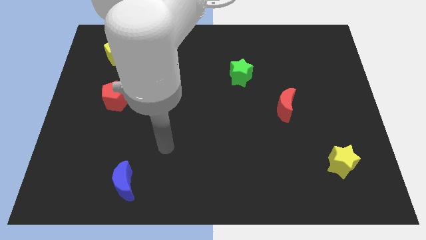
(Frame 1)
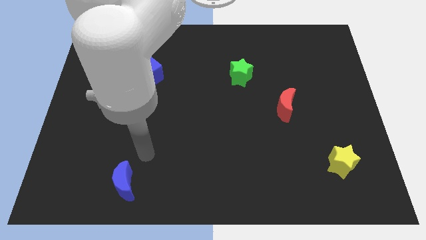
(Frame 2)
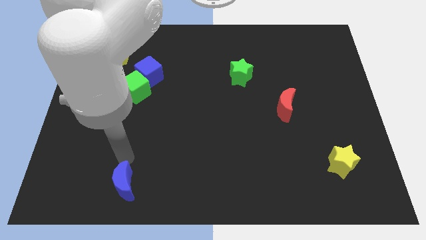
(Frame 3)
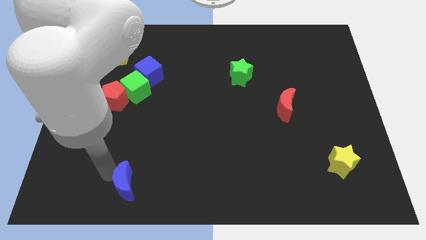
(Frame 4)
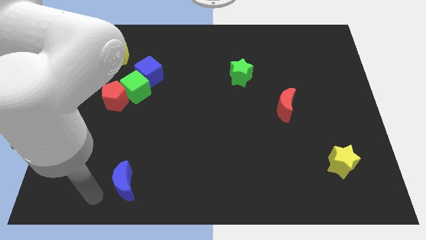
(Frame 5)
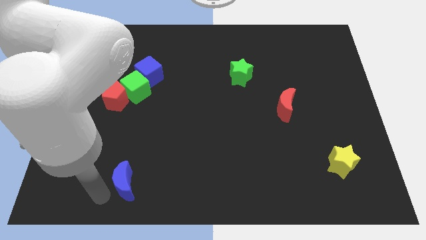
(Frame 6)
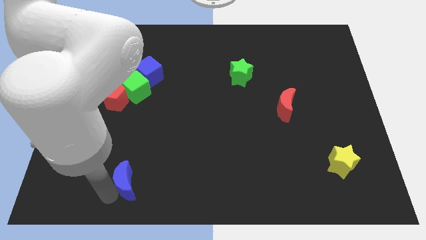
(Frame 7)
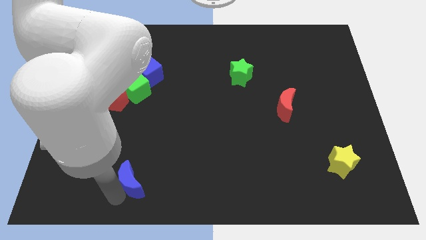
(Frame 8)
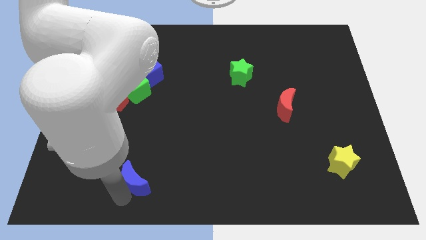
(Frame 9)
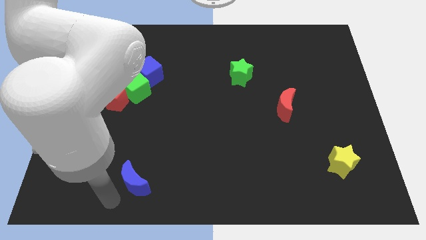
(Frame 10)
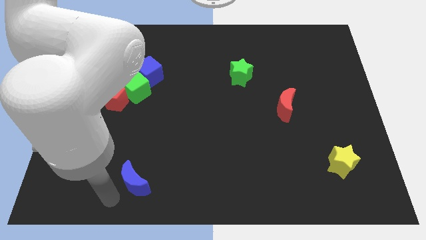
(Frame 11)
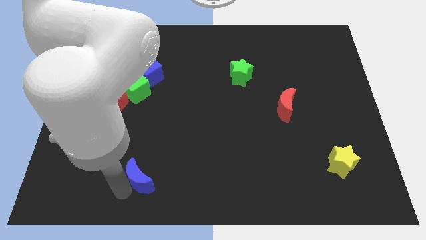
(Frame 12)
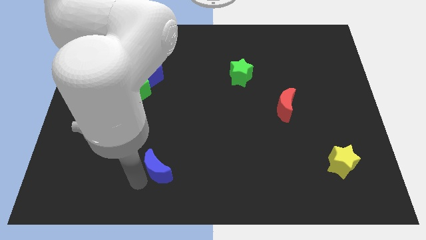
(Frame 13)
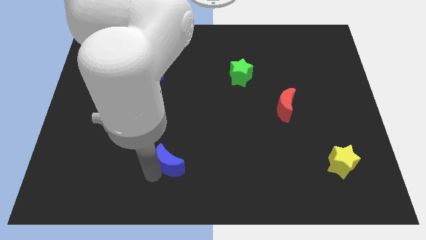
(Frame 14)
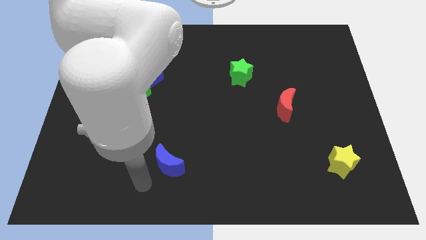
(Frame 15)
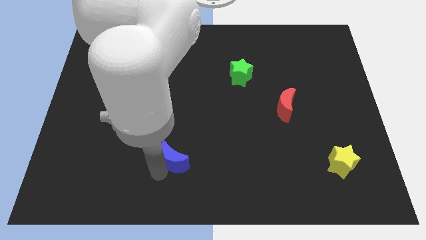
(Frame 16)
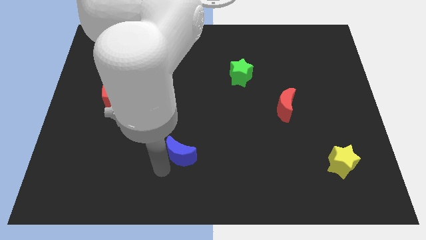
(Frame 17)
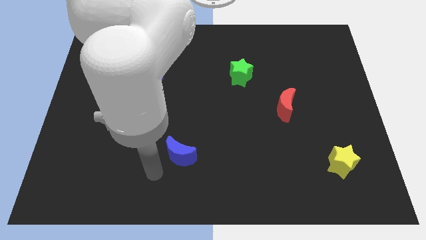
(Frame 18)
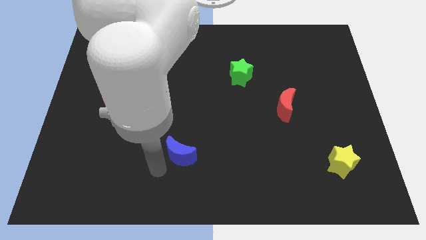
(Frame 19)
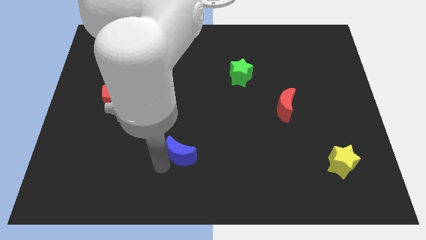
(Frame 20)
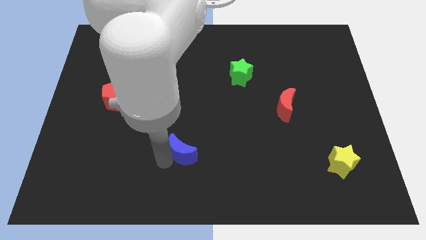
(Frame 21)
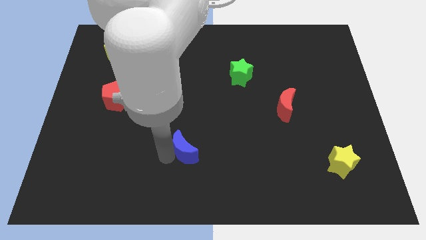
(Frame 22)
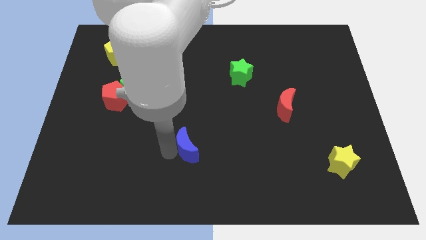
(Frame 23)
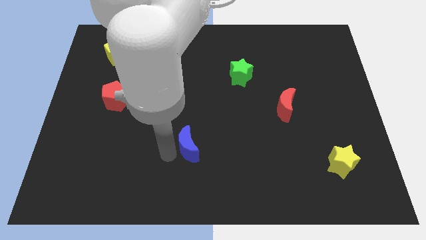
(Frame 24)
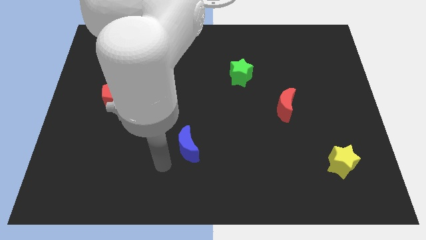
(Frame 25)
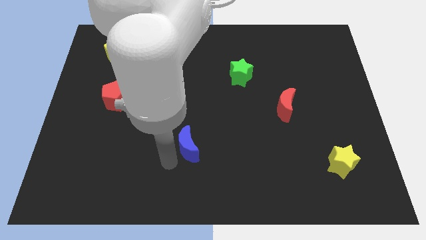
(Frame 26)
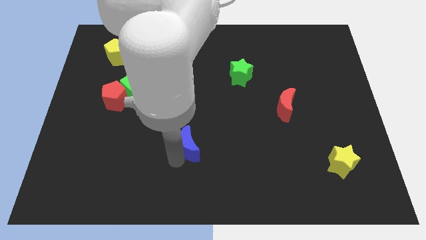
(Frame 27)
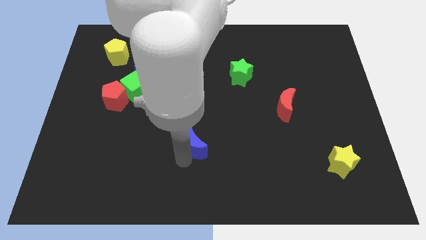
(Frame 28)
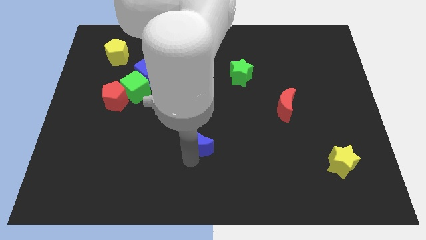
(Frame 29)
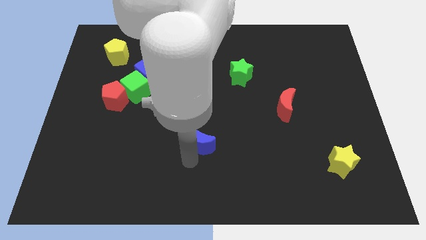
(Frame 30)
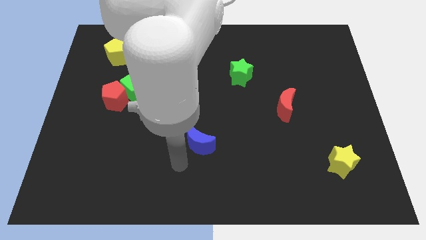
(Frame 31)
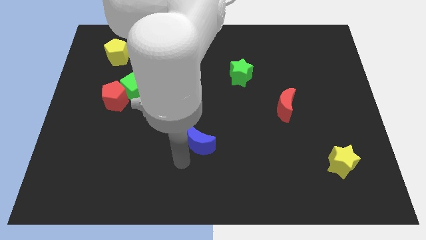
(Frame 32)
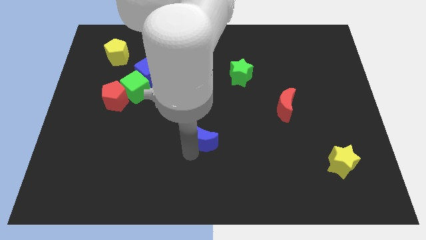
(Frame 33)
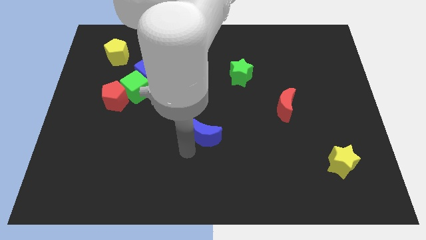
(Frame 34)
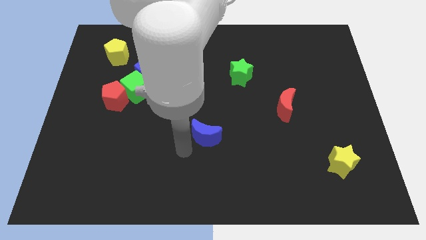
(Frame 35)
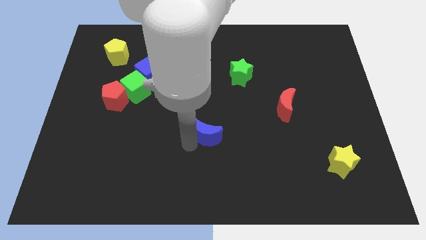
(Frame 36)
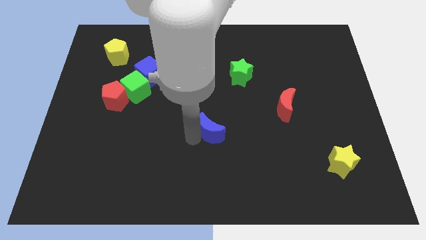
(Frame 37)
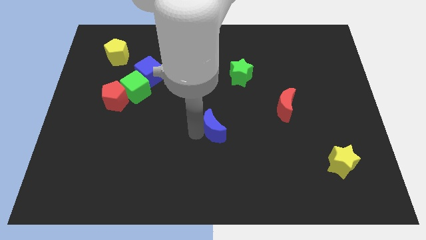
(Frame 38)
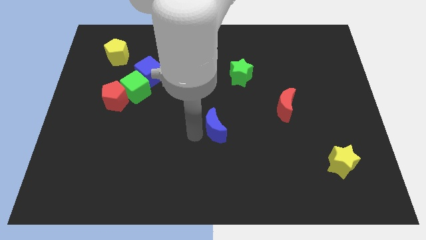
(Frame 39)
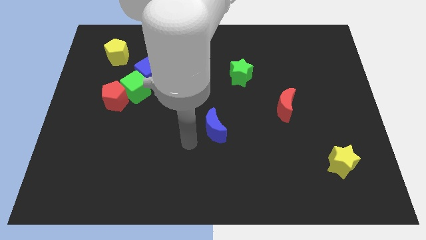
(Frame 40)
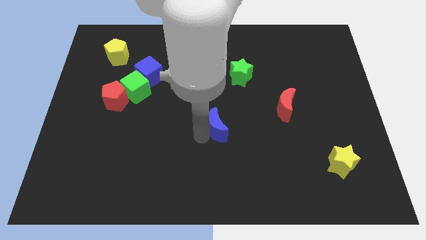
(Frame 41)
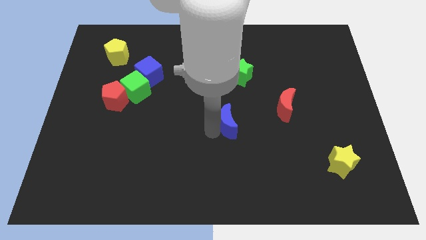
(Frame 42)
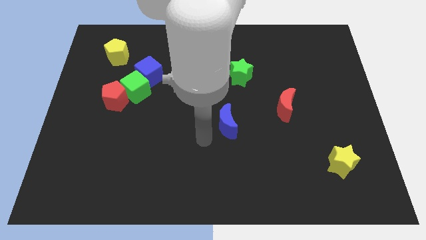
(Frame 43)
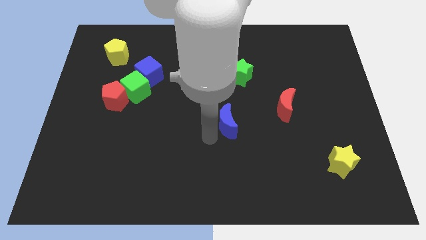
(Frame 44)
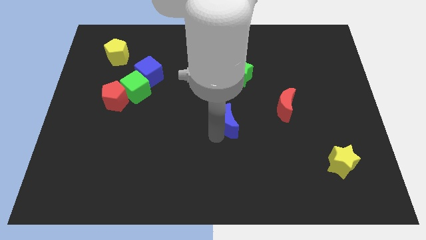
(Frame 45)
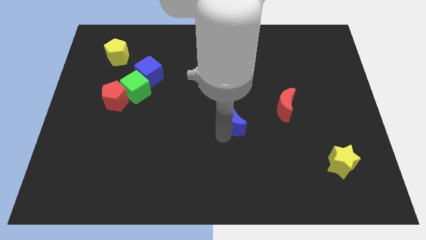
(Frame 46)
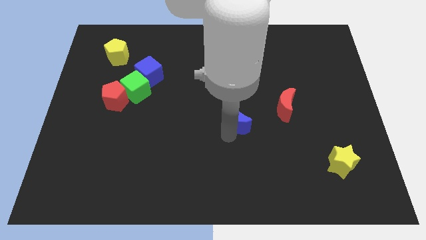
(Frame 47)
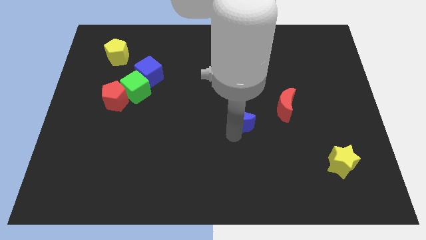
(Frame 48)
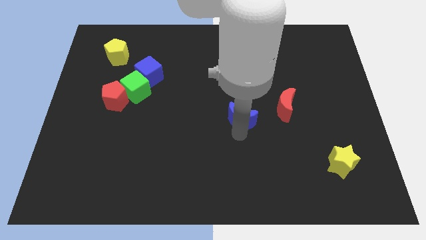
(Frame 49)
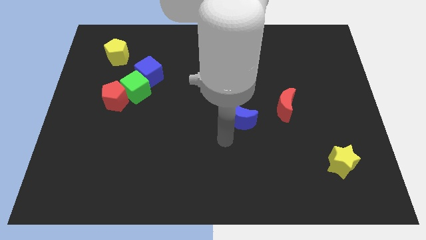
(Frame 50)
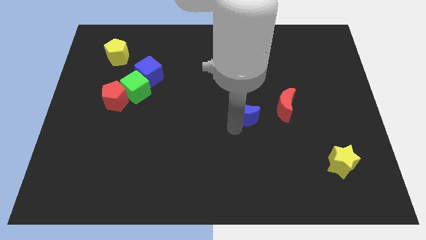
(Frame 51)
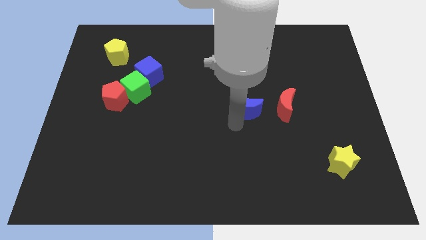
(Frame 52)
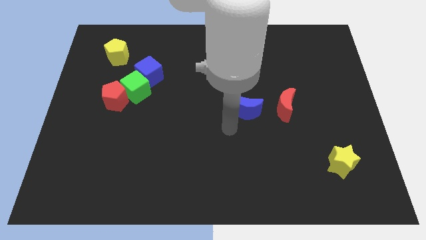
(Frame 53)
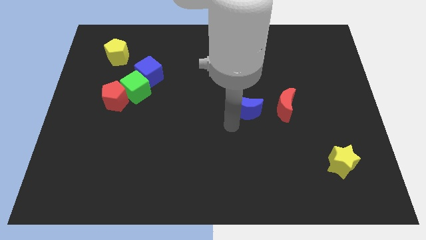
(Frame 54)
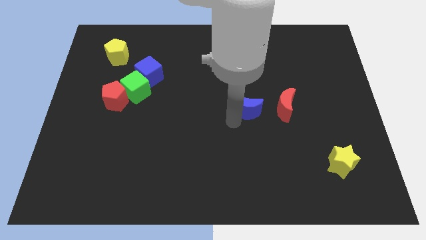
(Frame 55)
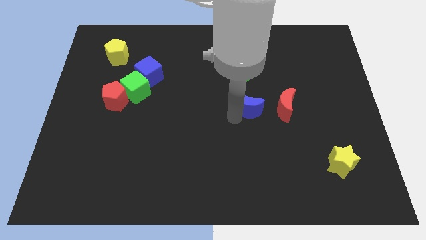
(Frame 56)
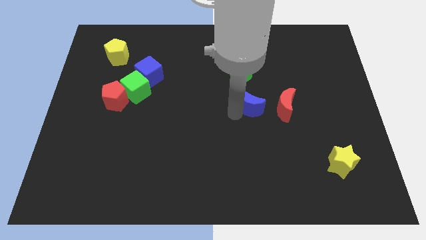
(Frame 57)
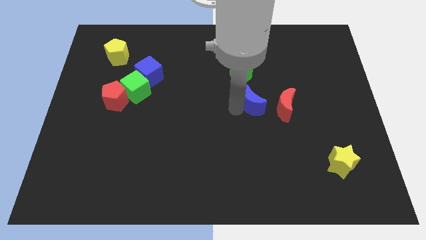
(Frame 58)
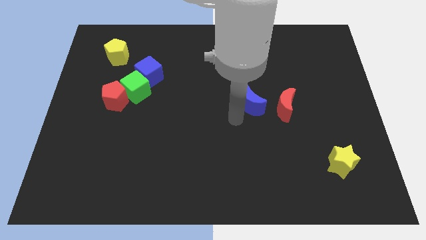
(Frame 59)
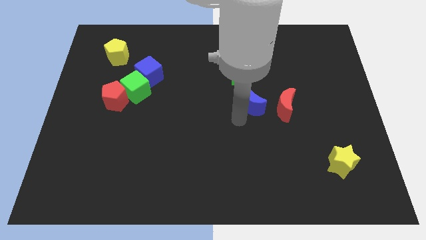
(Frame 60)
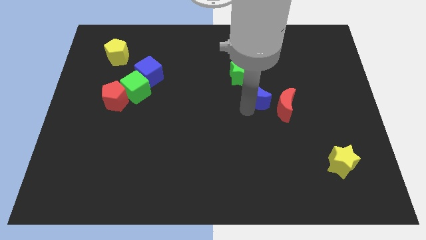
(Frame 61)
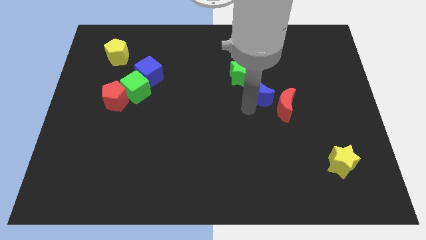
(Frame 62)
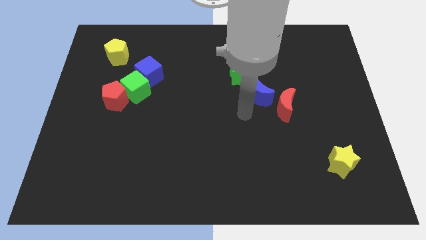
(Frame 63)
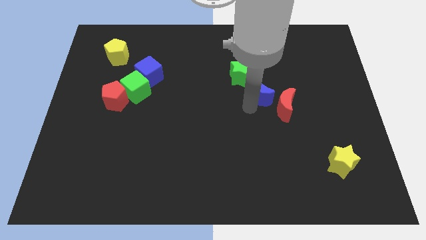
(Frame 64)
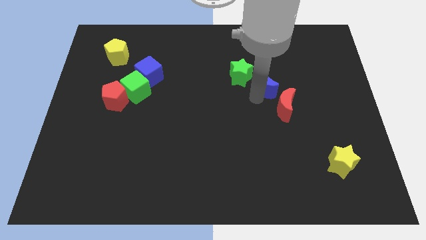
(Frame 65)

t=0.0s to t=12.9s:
put the blue moon above the red moon
